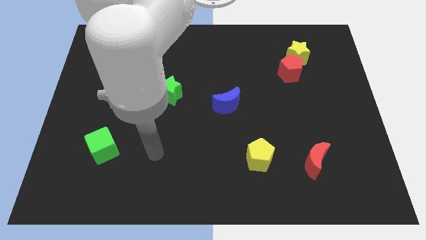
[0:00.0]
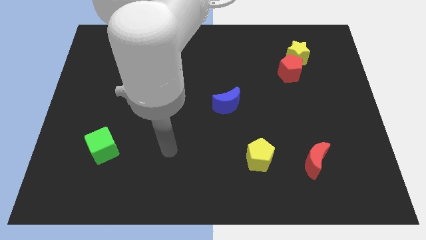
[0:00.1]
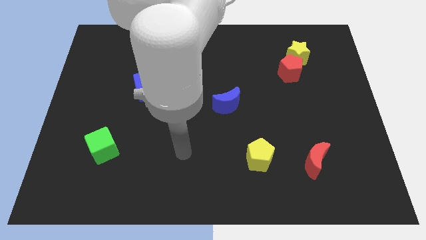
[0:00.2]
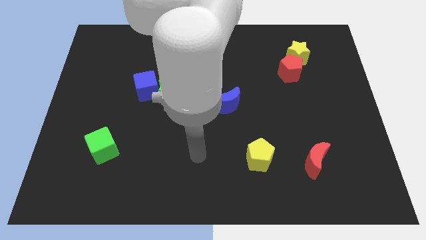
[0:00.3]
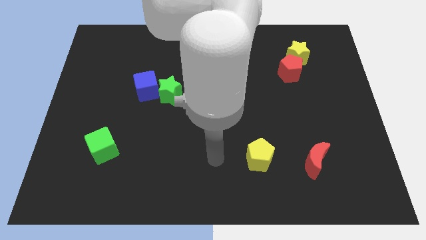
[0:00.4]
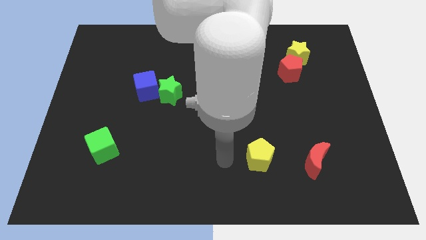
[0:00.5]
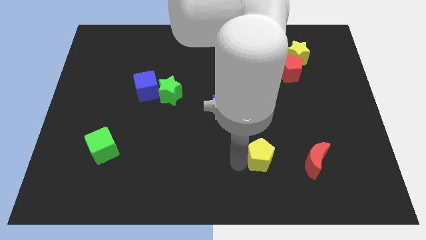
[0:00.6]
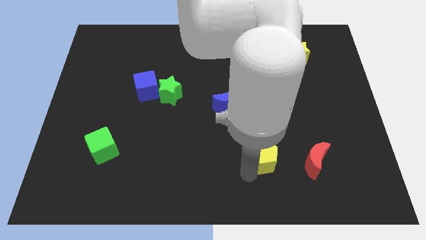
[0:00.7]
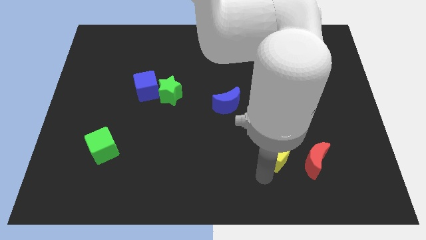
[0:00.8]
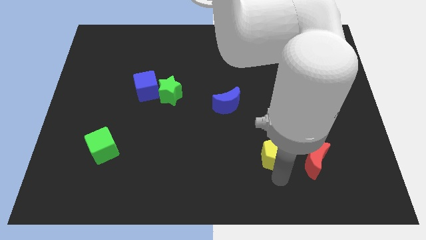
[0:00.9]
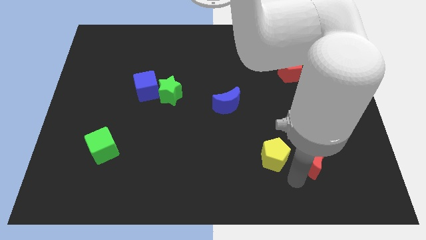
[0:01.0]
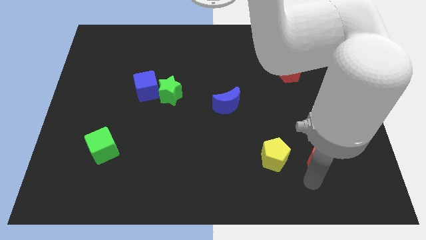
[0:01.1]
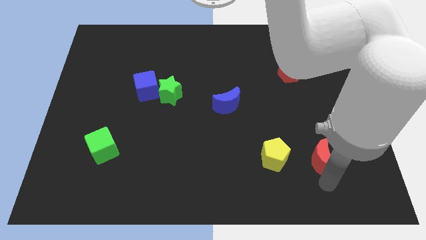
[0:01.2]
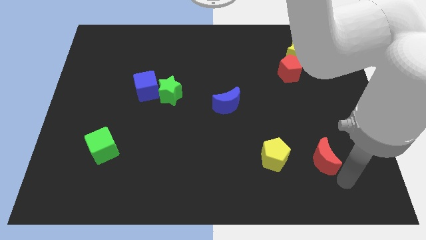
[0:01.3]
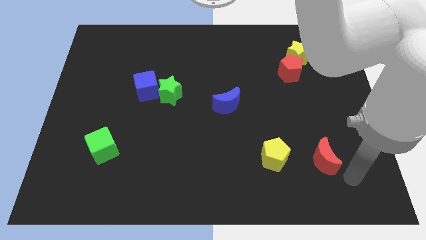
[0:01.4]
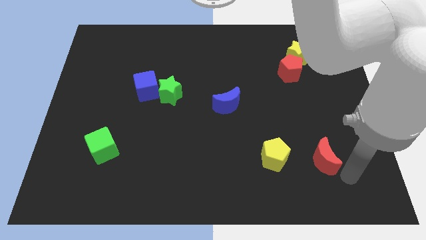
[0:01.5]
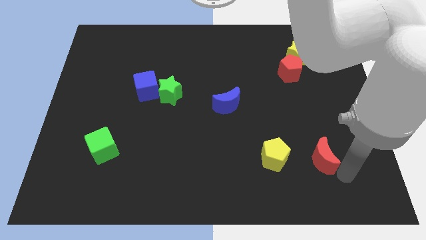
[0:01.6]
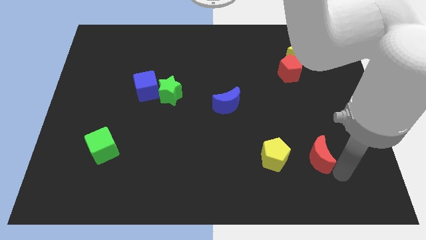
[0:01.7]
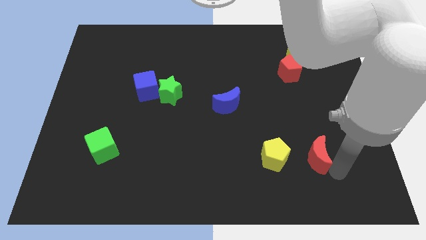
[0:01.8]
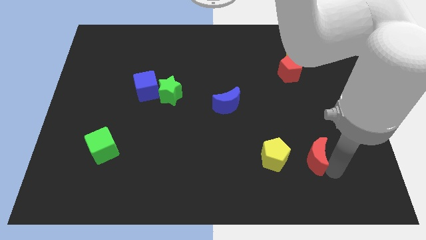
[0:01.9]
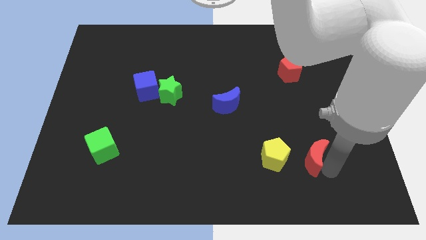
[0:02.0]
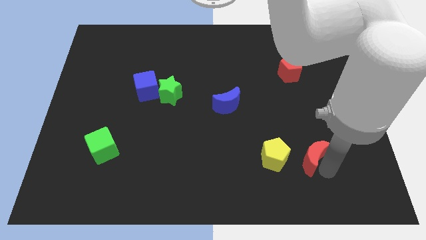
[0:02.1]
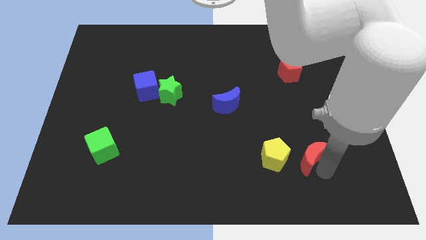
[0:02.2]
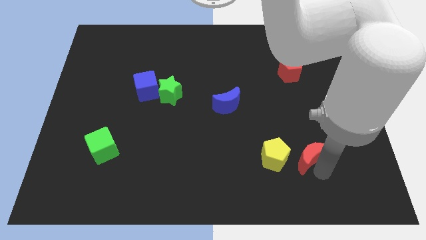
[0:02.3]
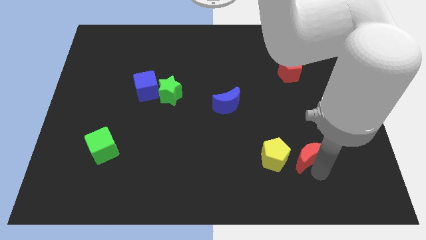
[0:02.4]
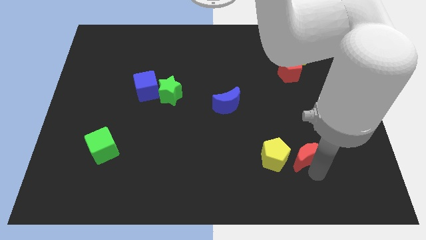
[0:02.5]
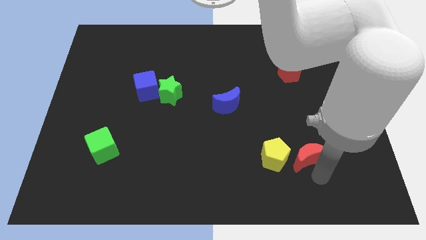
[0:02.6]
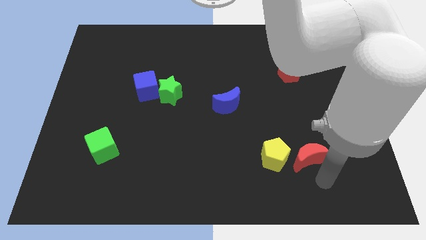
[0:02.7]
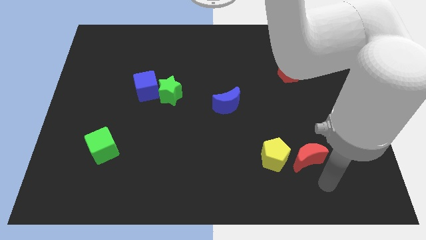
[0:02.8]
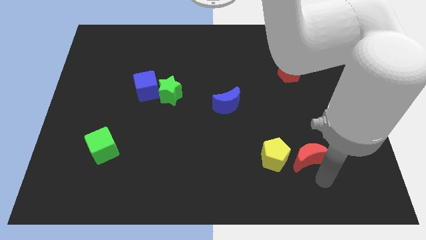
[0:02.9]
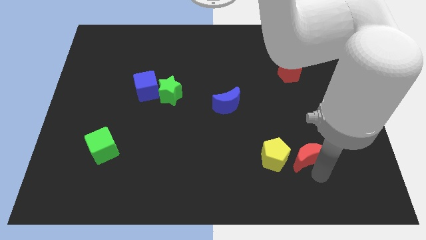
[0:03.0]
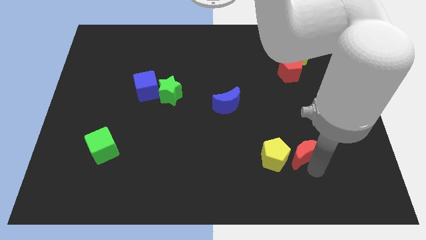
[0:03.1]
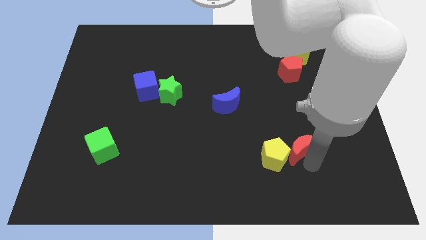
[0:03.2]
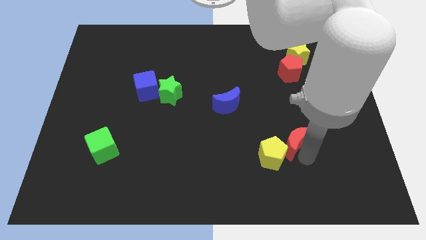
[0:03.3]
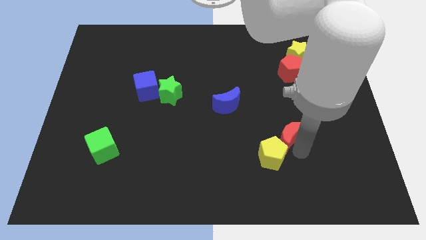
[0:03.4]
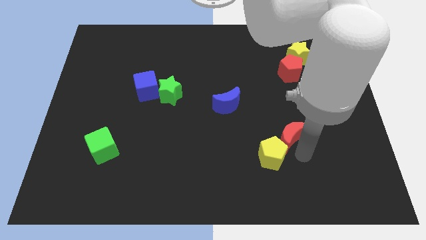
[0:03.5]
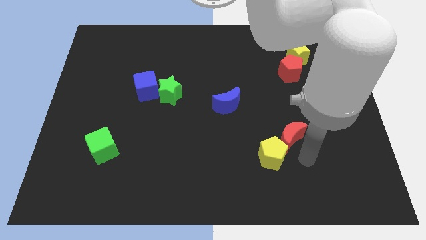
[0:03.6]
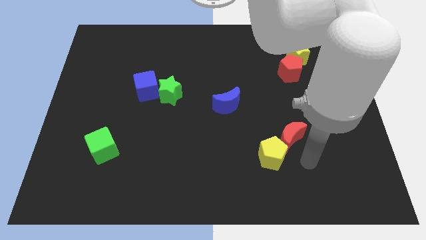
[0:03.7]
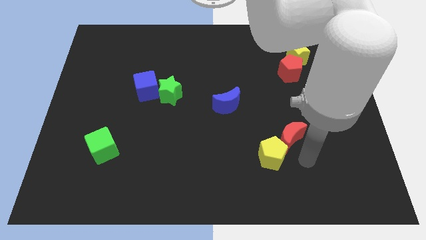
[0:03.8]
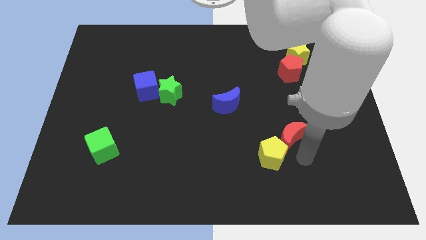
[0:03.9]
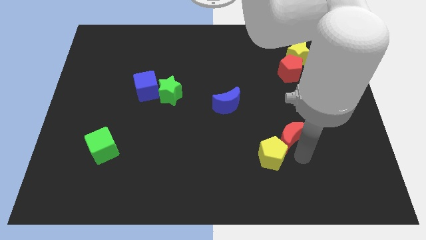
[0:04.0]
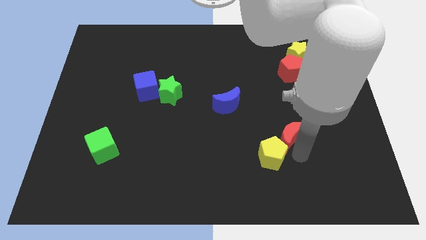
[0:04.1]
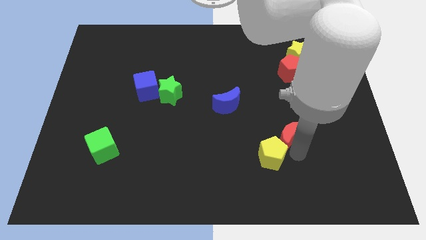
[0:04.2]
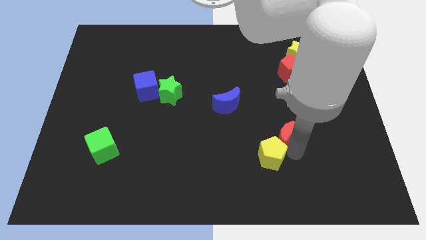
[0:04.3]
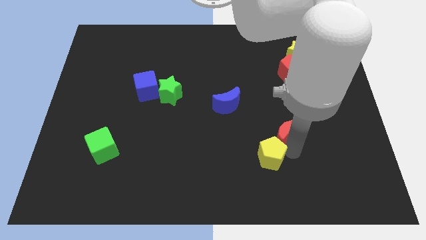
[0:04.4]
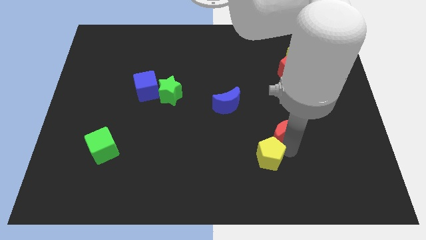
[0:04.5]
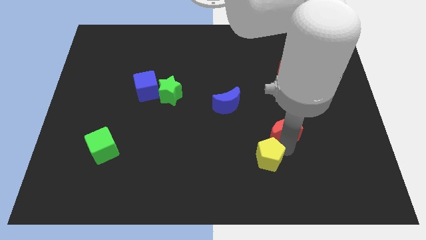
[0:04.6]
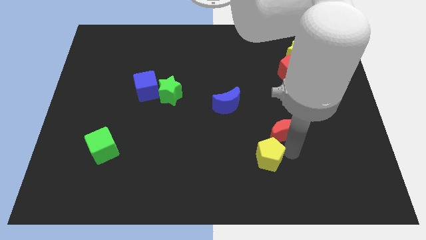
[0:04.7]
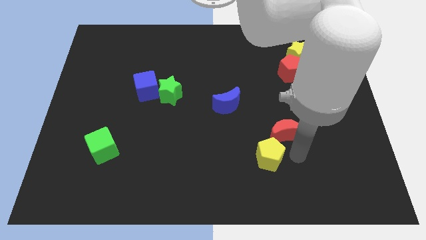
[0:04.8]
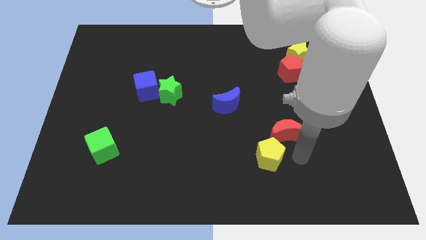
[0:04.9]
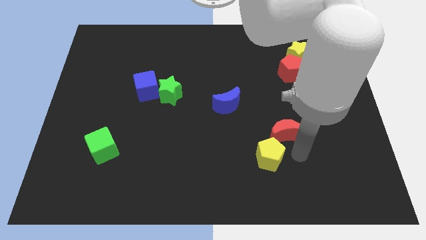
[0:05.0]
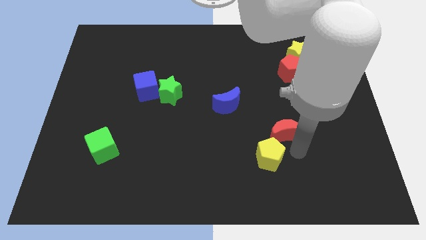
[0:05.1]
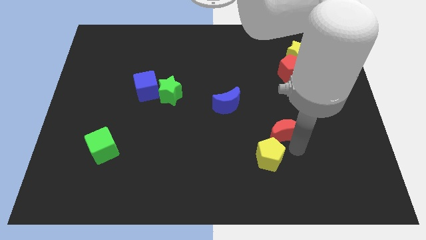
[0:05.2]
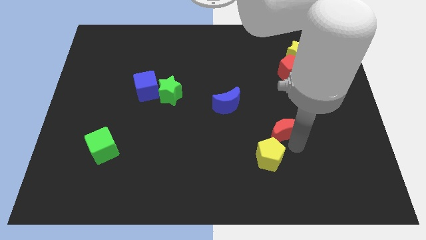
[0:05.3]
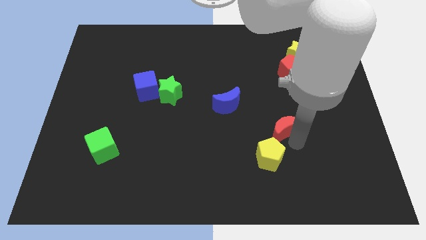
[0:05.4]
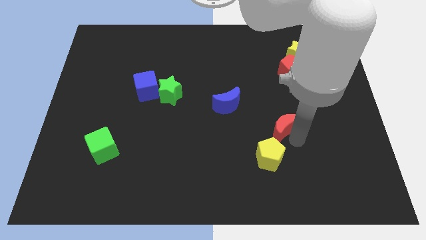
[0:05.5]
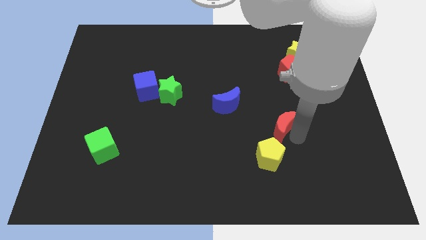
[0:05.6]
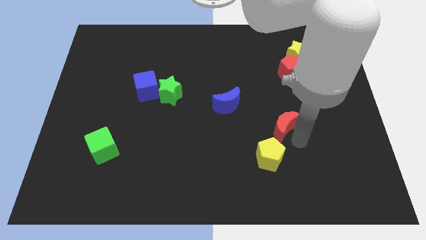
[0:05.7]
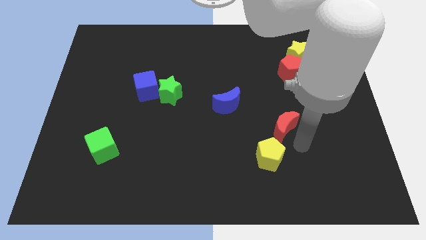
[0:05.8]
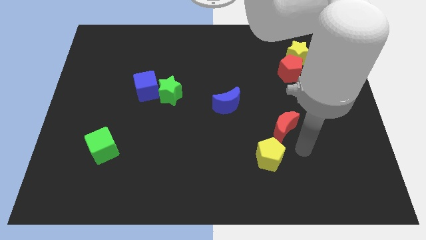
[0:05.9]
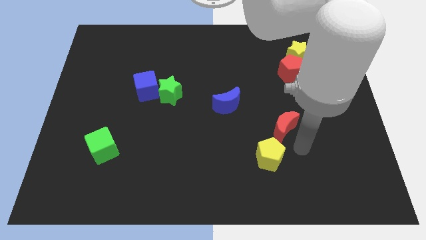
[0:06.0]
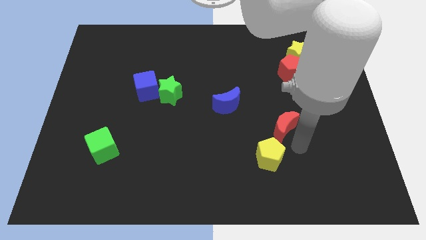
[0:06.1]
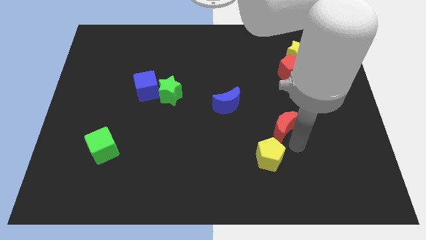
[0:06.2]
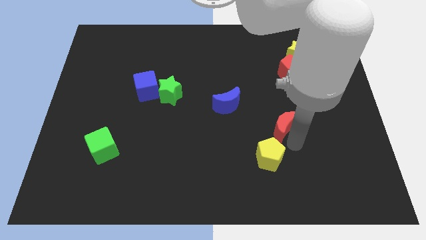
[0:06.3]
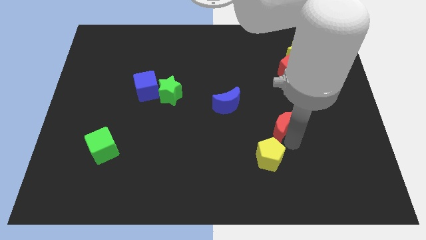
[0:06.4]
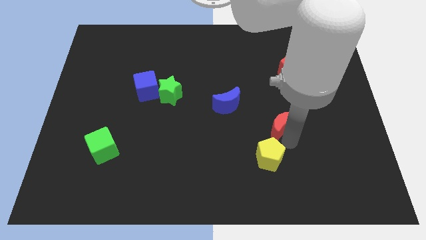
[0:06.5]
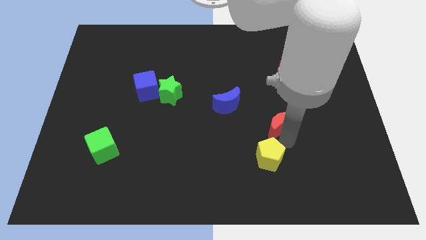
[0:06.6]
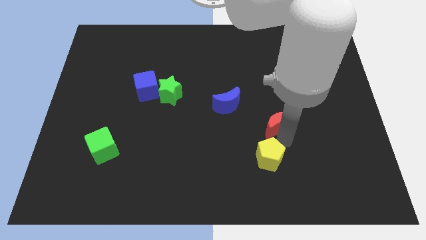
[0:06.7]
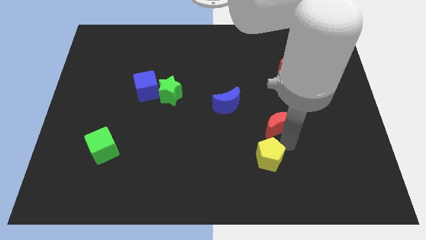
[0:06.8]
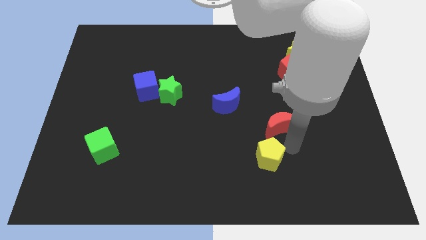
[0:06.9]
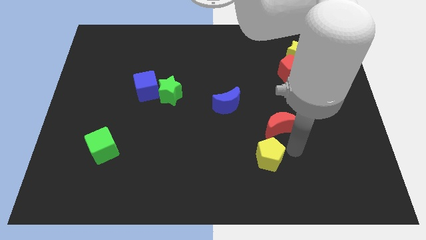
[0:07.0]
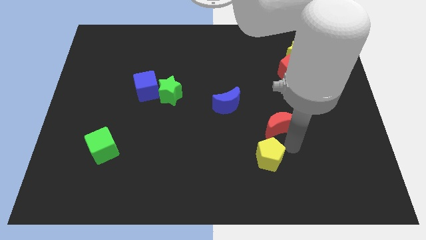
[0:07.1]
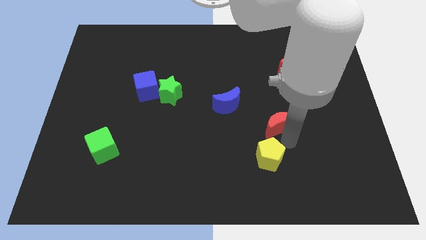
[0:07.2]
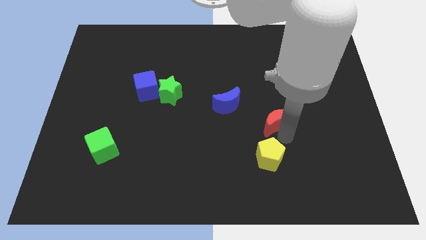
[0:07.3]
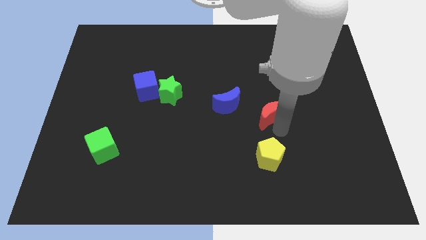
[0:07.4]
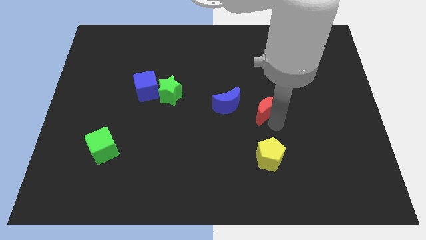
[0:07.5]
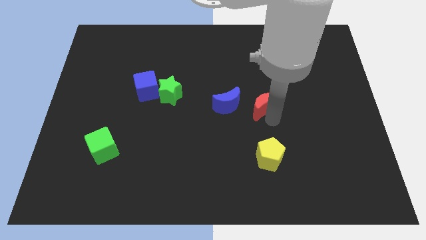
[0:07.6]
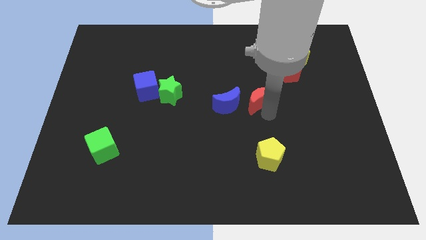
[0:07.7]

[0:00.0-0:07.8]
push the red moon diagonally up and to the right of the blue moon

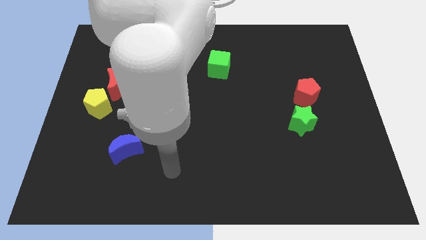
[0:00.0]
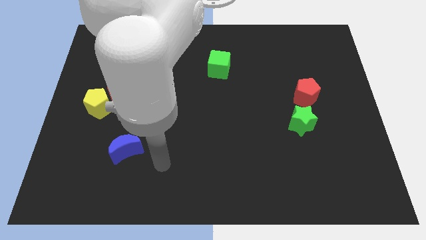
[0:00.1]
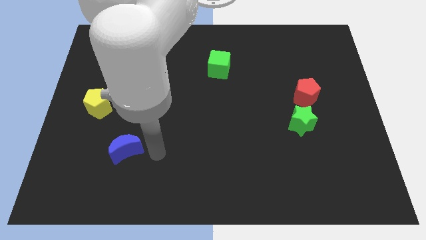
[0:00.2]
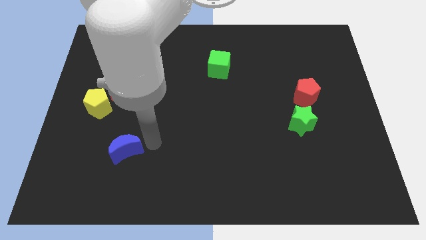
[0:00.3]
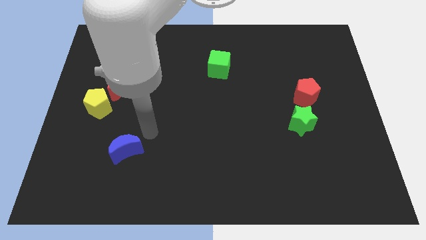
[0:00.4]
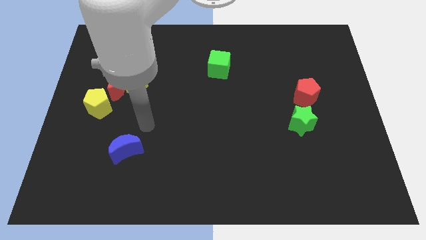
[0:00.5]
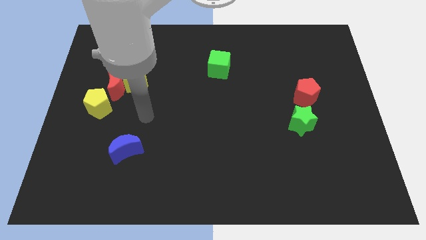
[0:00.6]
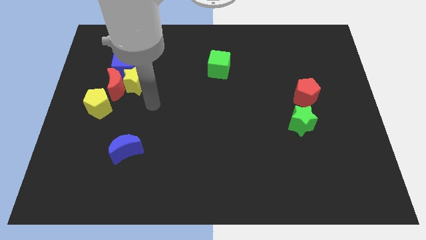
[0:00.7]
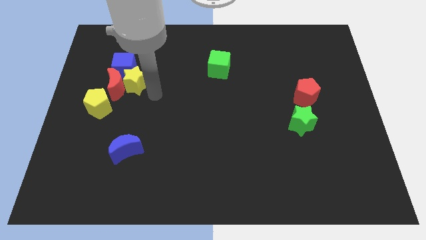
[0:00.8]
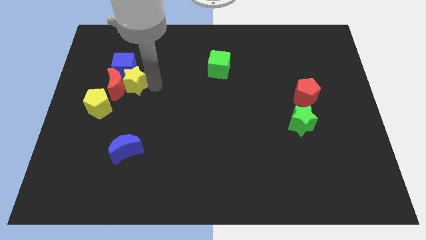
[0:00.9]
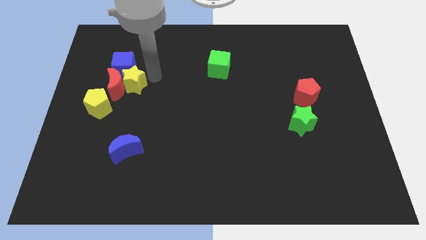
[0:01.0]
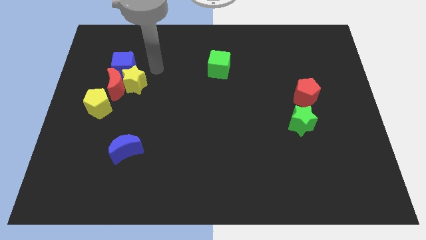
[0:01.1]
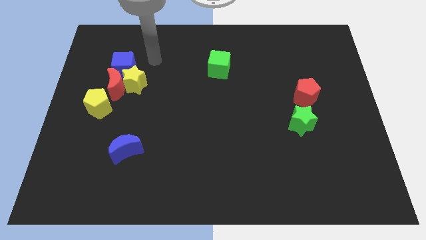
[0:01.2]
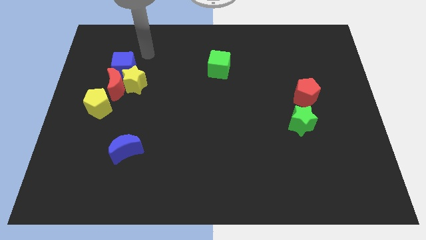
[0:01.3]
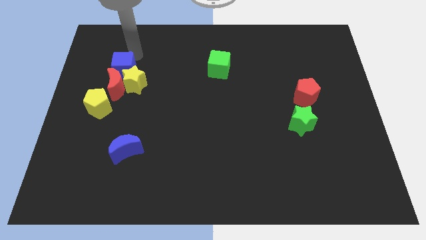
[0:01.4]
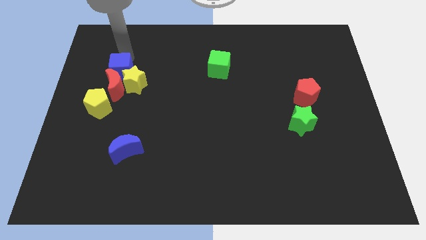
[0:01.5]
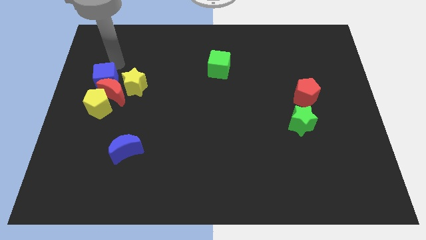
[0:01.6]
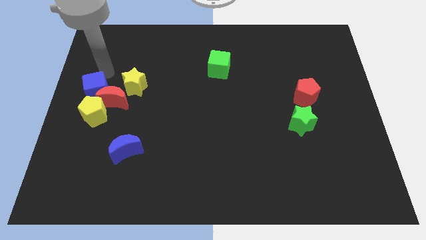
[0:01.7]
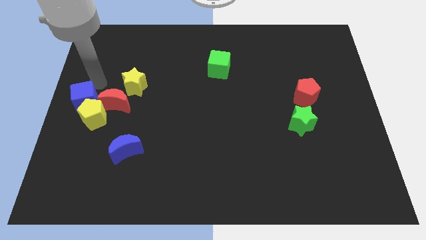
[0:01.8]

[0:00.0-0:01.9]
slide the red moon to the top side of the blue moon
